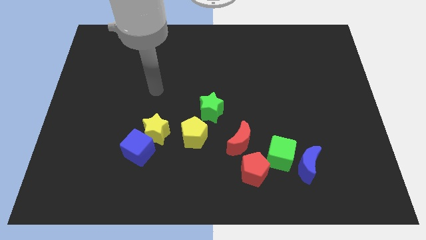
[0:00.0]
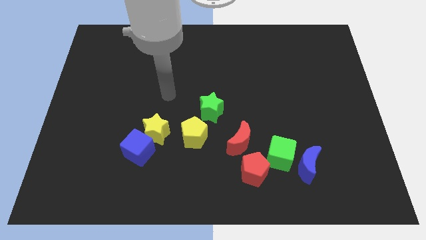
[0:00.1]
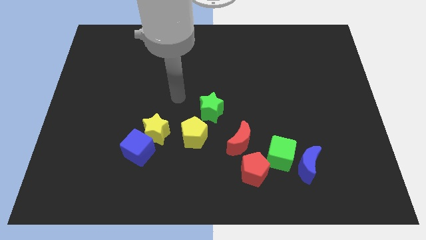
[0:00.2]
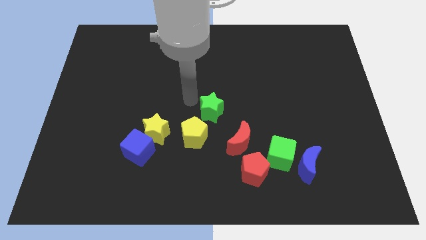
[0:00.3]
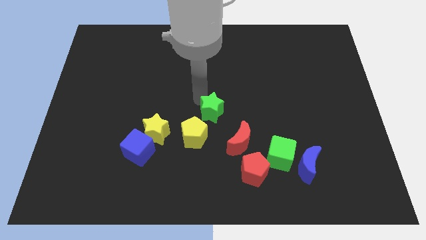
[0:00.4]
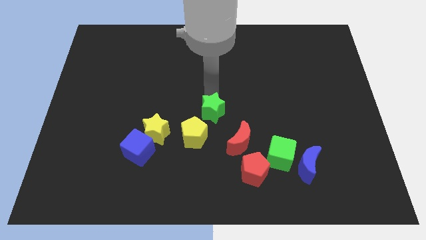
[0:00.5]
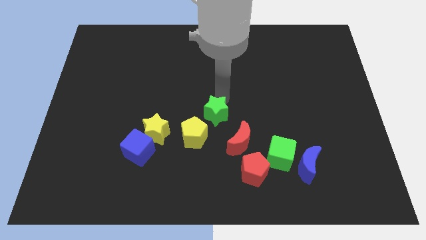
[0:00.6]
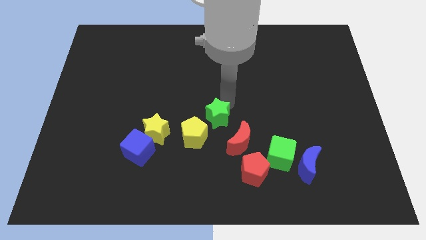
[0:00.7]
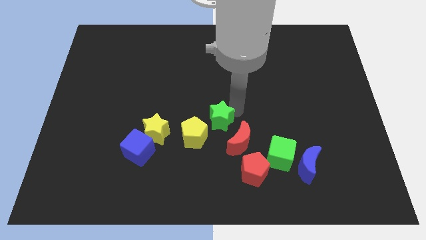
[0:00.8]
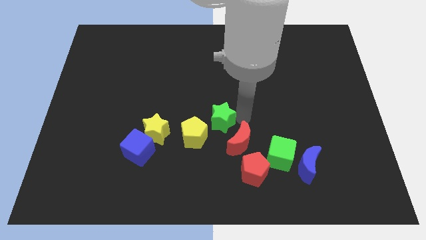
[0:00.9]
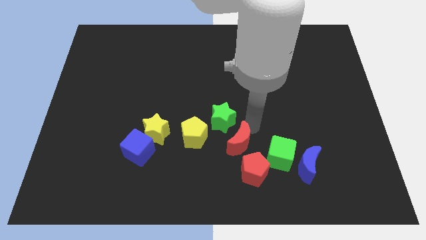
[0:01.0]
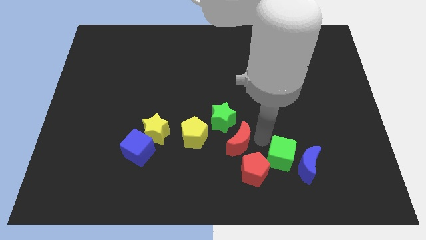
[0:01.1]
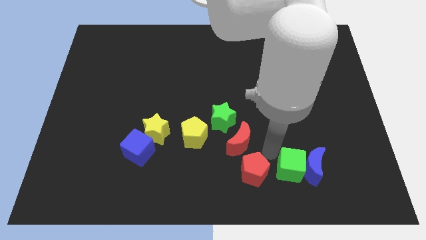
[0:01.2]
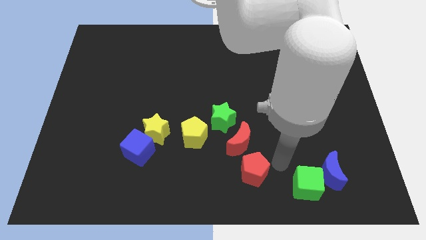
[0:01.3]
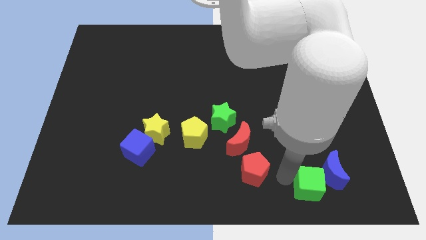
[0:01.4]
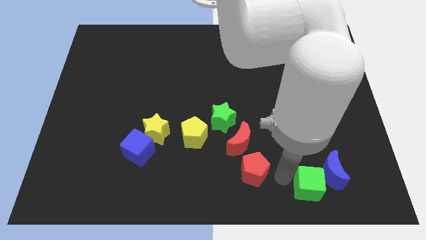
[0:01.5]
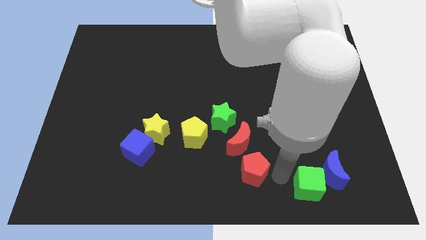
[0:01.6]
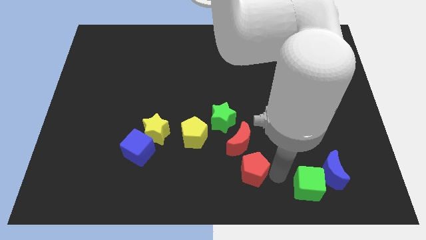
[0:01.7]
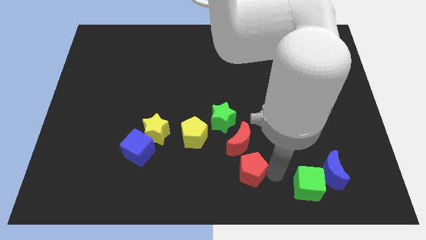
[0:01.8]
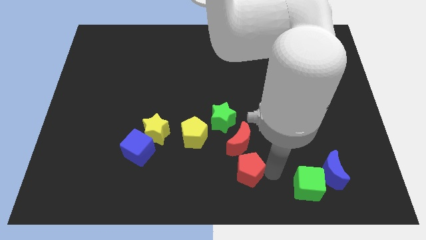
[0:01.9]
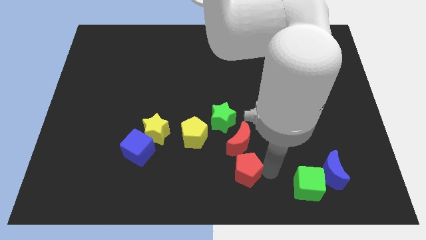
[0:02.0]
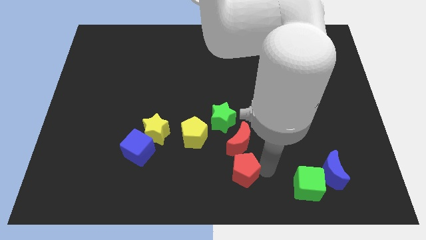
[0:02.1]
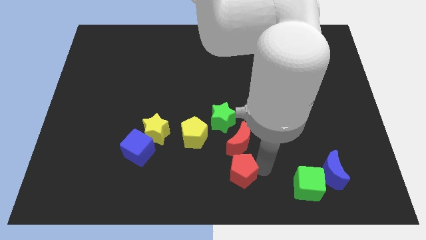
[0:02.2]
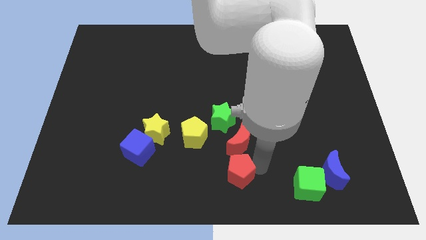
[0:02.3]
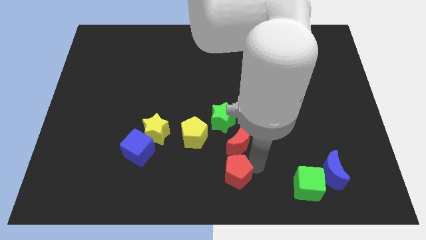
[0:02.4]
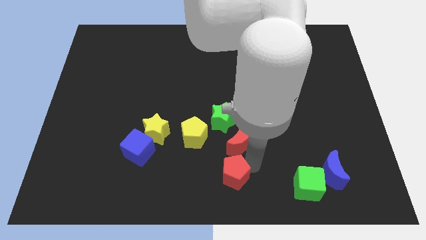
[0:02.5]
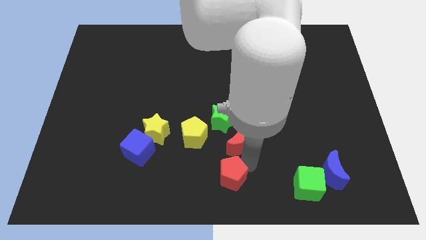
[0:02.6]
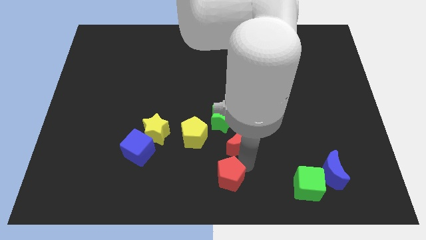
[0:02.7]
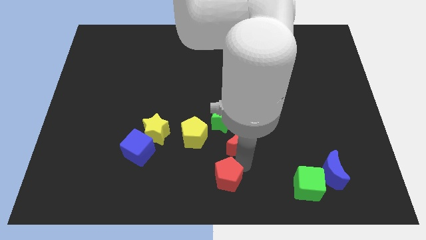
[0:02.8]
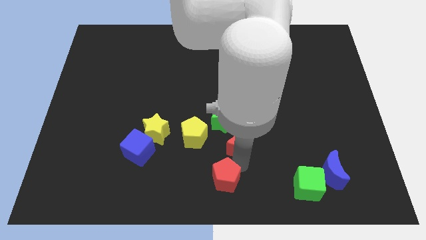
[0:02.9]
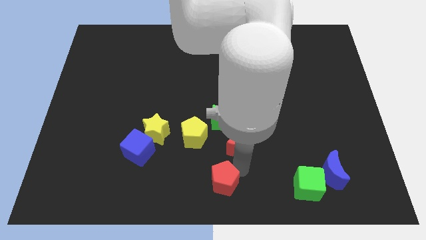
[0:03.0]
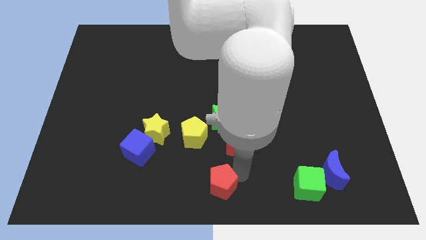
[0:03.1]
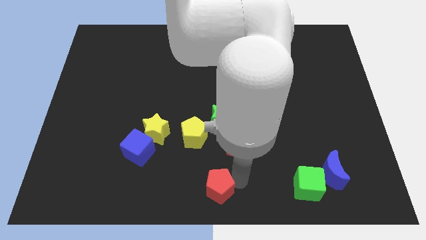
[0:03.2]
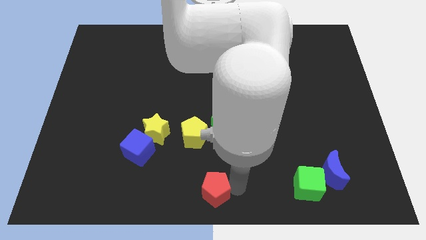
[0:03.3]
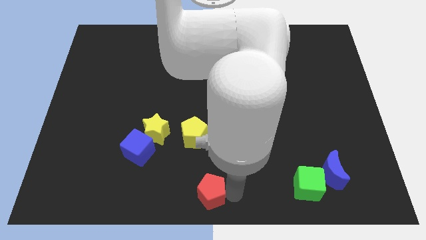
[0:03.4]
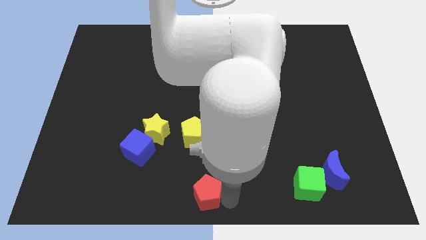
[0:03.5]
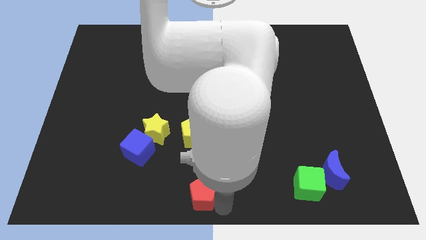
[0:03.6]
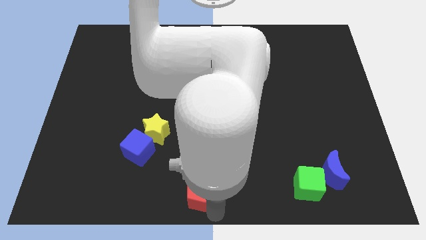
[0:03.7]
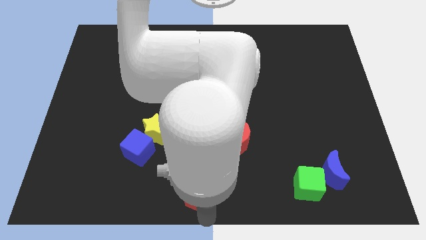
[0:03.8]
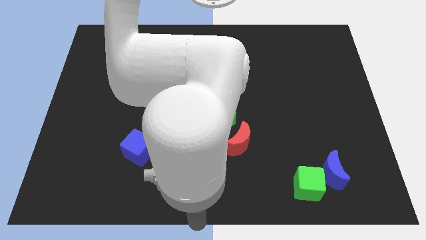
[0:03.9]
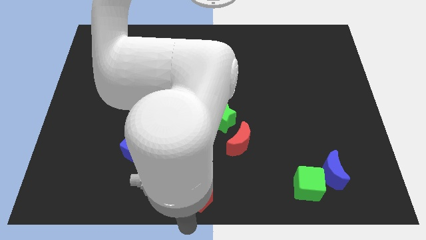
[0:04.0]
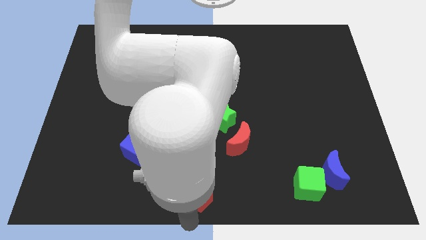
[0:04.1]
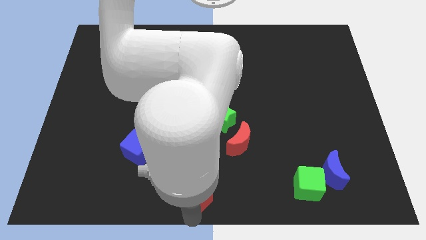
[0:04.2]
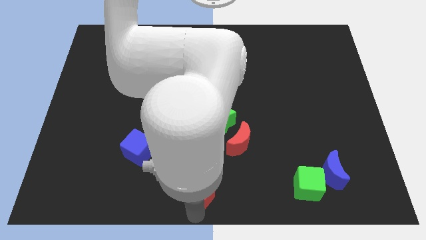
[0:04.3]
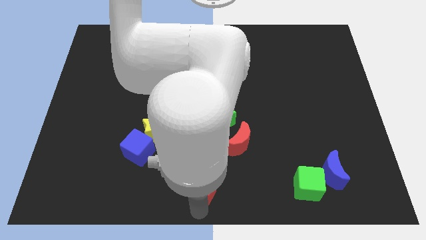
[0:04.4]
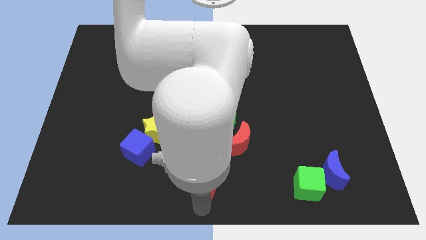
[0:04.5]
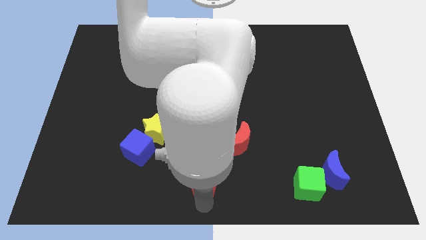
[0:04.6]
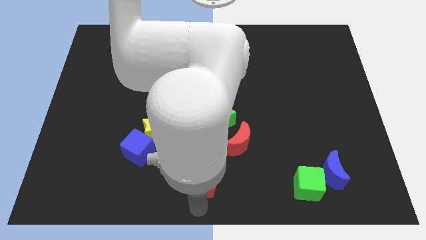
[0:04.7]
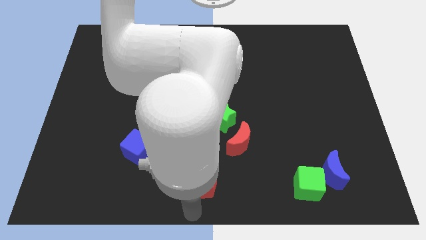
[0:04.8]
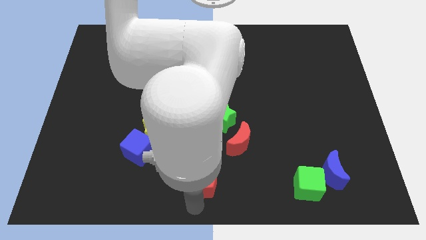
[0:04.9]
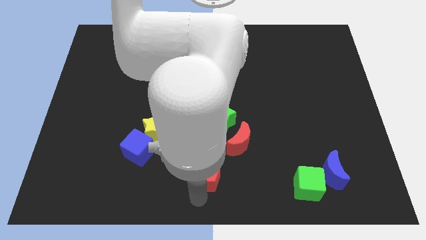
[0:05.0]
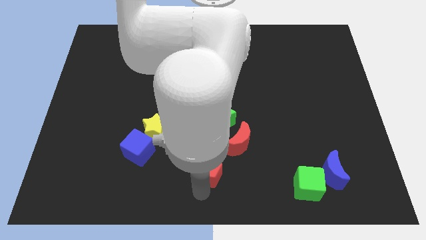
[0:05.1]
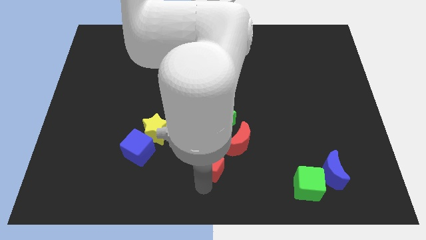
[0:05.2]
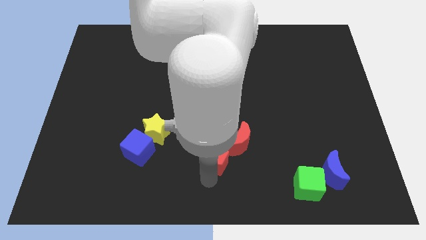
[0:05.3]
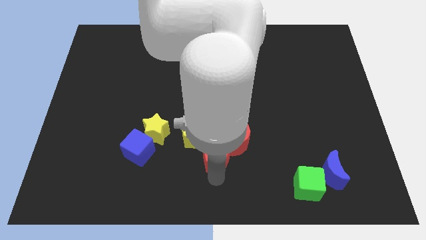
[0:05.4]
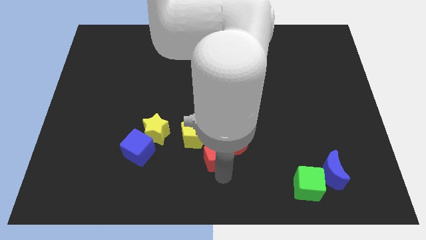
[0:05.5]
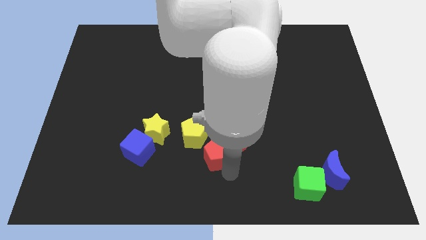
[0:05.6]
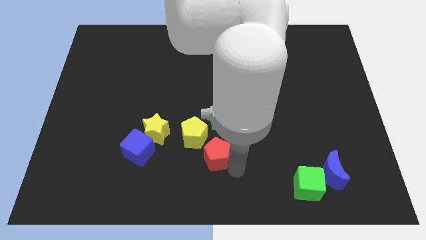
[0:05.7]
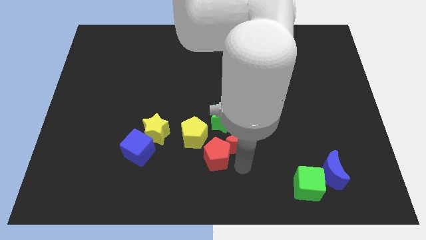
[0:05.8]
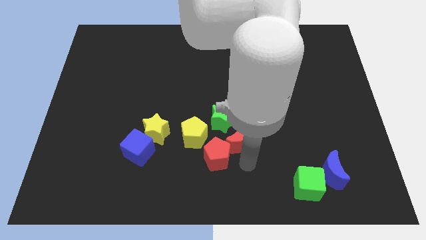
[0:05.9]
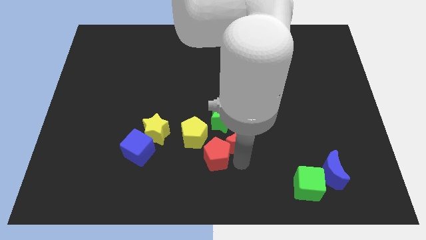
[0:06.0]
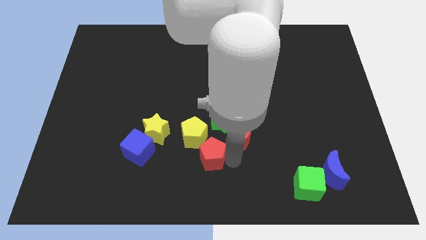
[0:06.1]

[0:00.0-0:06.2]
push the red pentagon just right of the blue cube
